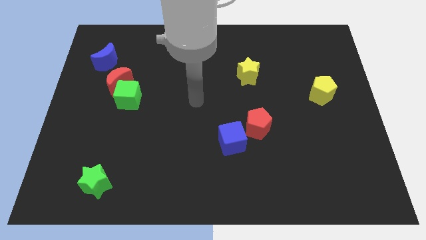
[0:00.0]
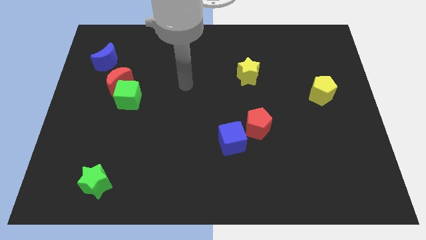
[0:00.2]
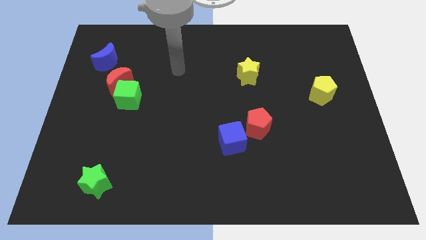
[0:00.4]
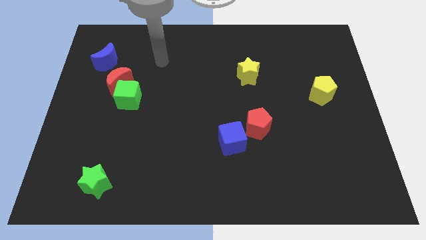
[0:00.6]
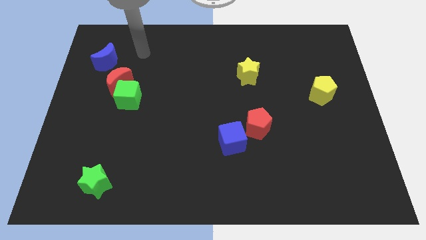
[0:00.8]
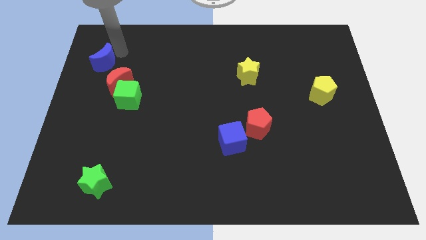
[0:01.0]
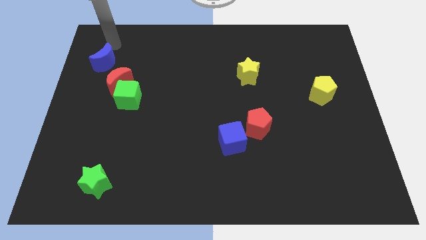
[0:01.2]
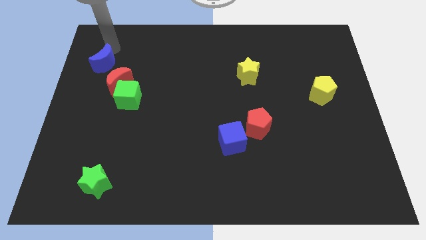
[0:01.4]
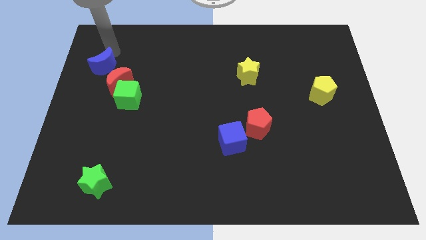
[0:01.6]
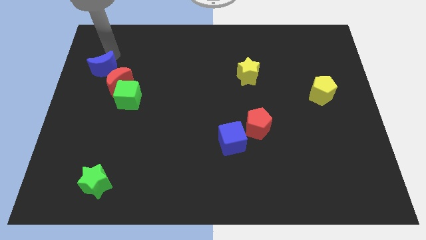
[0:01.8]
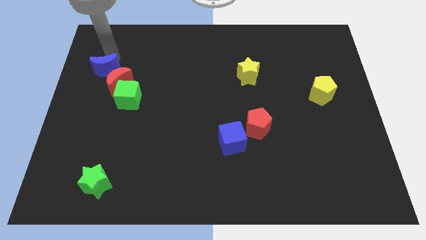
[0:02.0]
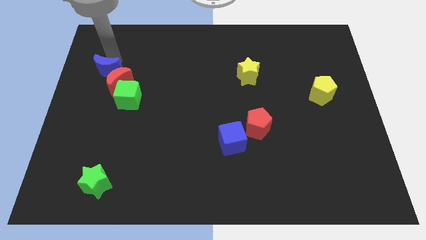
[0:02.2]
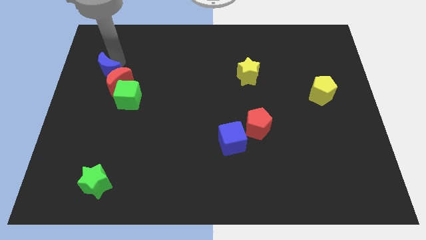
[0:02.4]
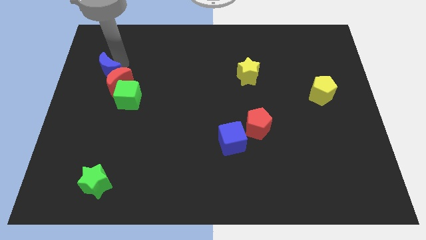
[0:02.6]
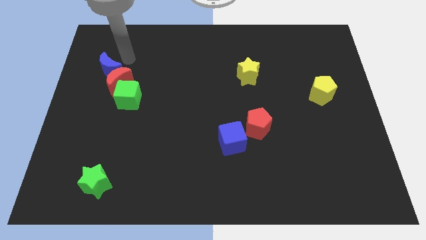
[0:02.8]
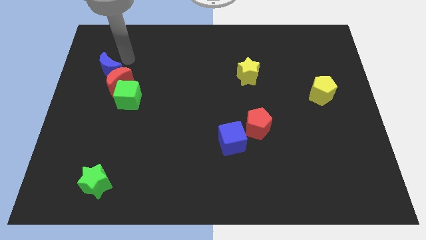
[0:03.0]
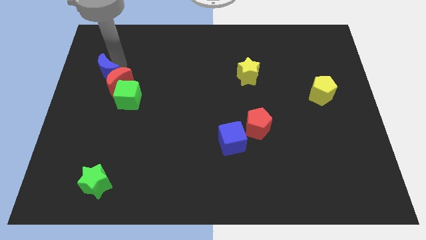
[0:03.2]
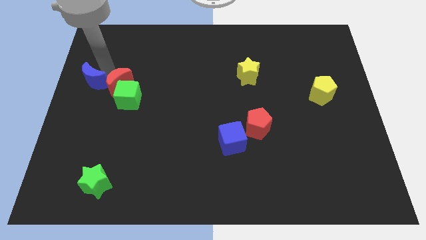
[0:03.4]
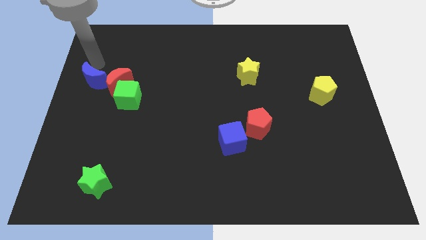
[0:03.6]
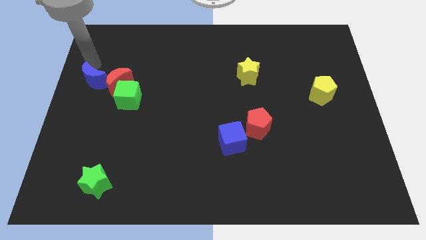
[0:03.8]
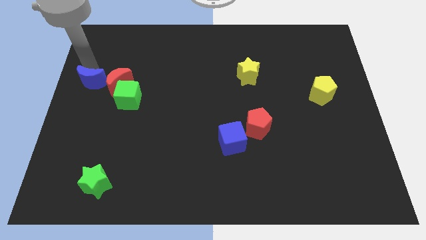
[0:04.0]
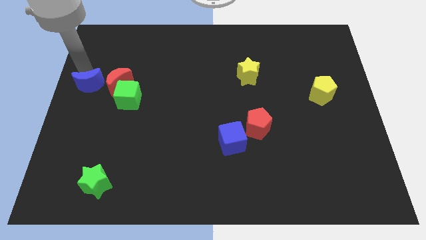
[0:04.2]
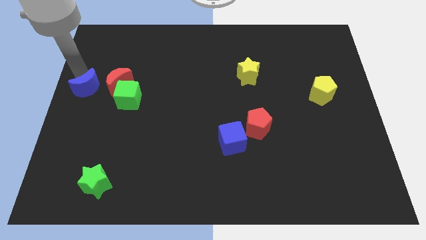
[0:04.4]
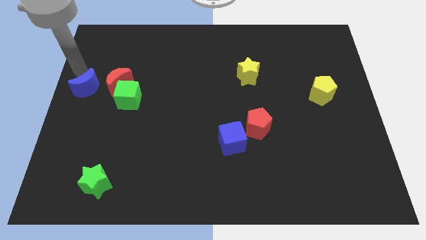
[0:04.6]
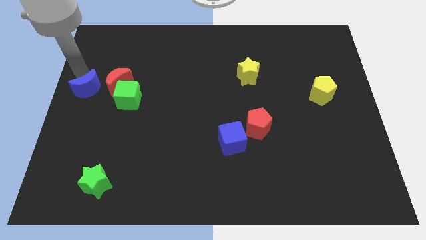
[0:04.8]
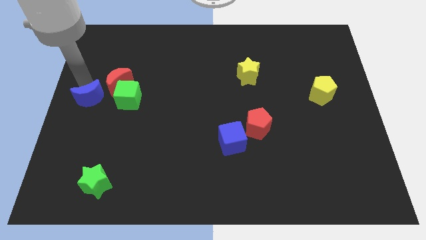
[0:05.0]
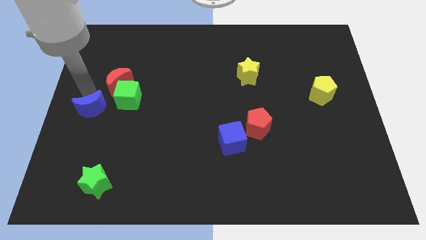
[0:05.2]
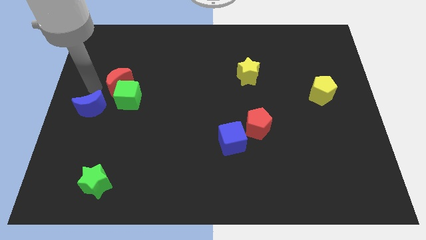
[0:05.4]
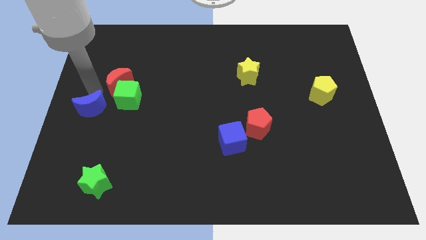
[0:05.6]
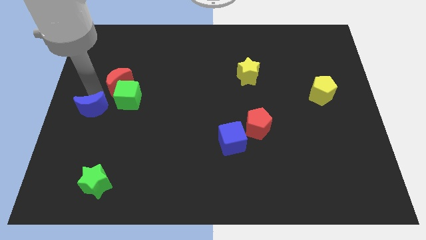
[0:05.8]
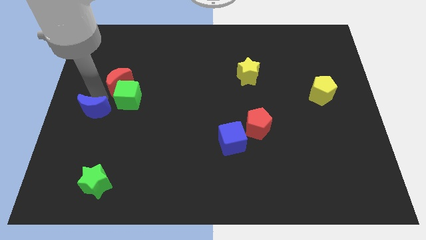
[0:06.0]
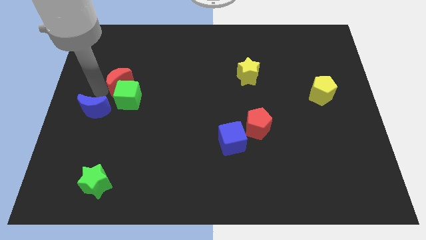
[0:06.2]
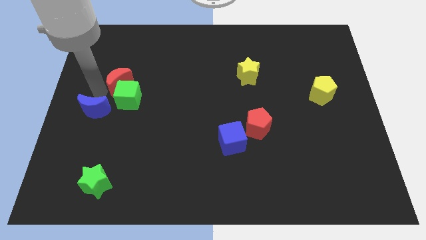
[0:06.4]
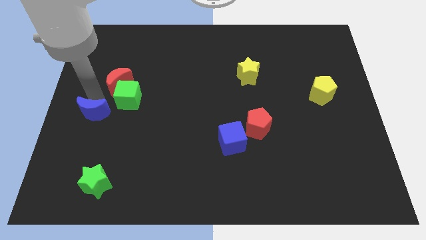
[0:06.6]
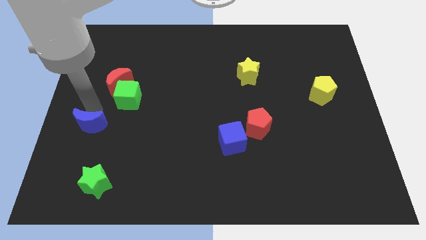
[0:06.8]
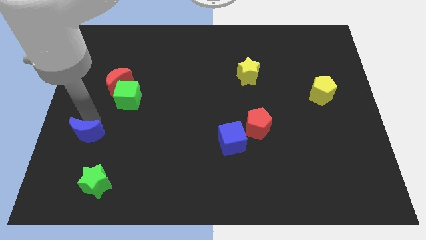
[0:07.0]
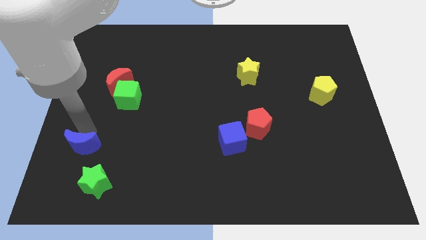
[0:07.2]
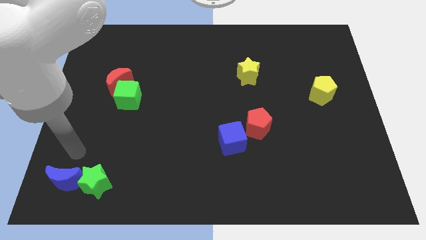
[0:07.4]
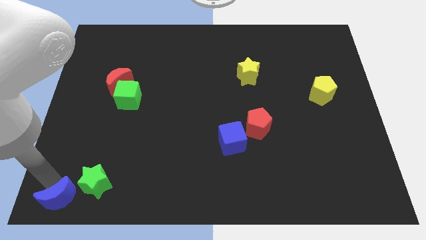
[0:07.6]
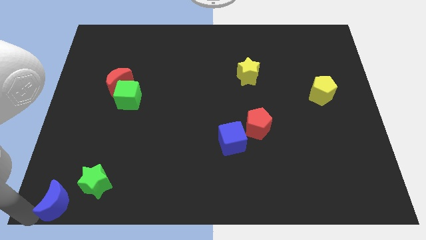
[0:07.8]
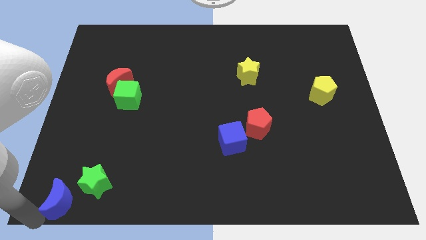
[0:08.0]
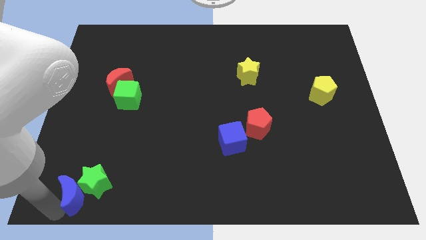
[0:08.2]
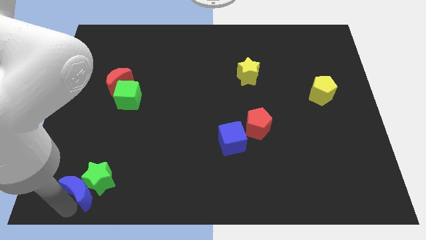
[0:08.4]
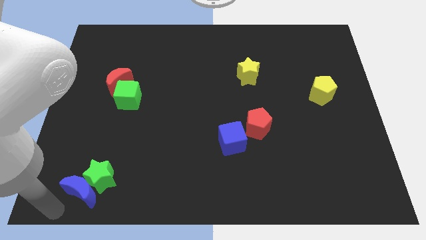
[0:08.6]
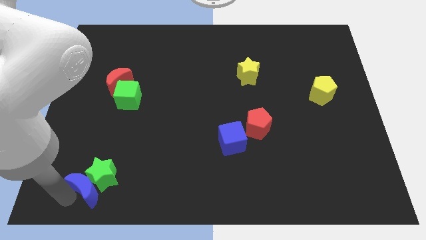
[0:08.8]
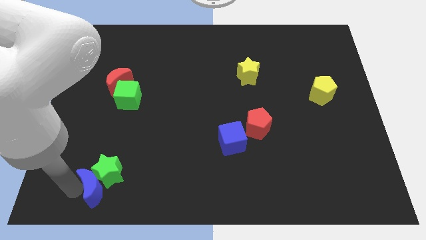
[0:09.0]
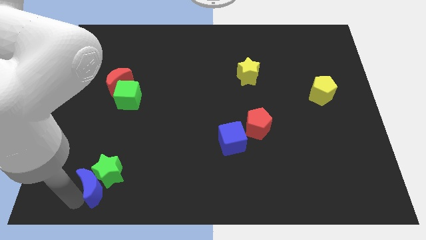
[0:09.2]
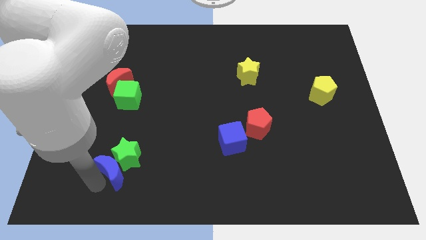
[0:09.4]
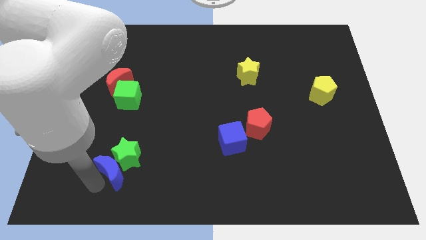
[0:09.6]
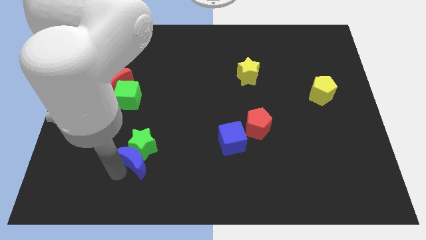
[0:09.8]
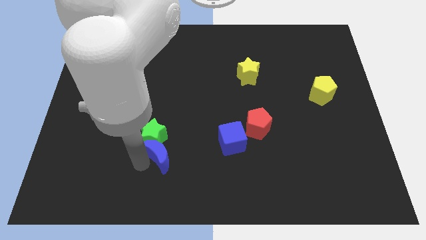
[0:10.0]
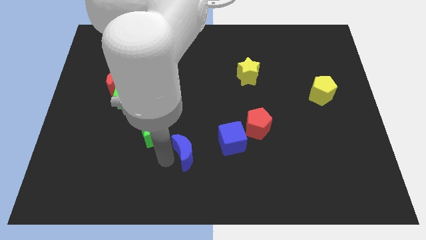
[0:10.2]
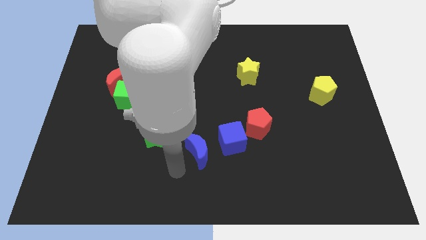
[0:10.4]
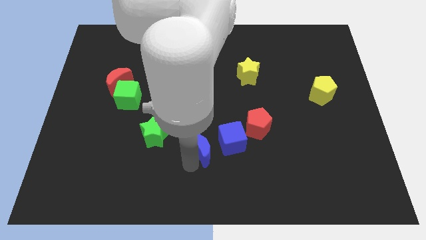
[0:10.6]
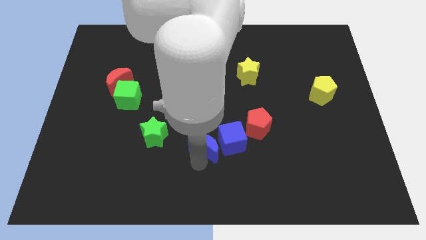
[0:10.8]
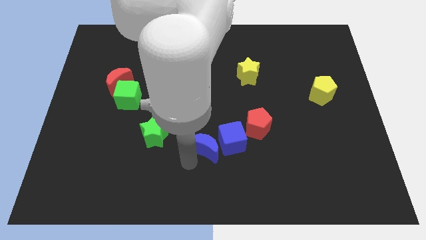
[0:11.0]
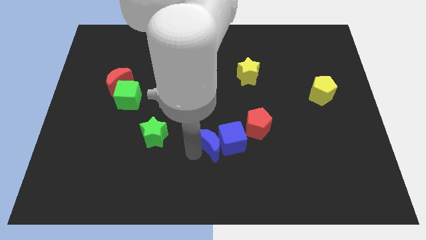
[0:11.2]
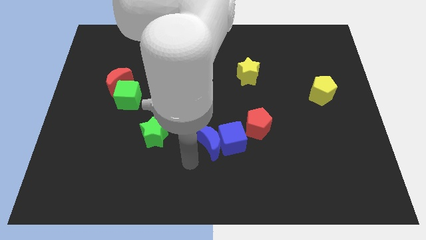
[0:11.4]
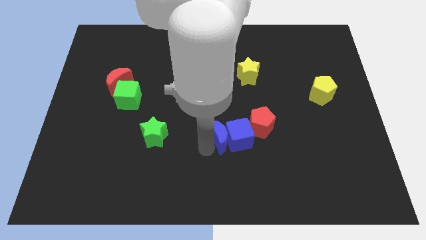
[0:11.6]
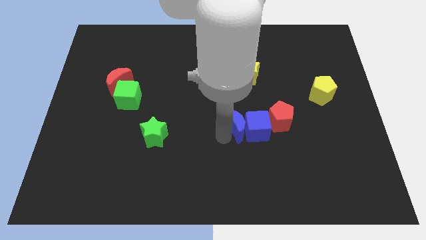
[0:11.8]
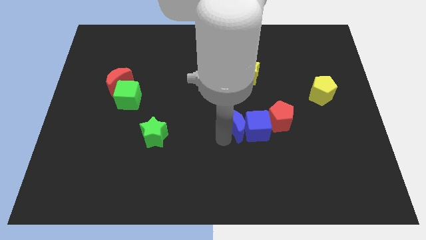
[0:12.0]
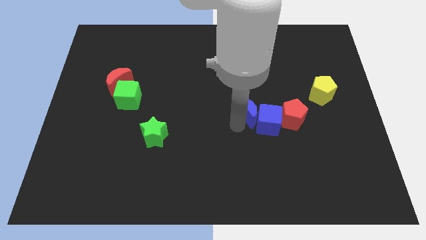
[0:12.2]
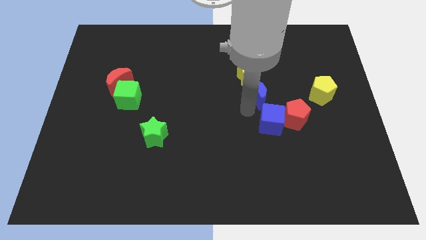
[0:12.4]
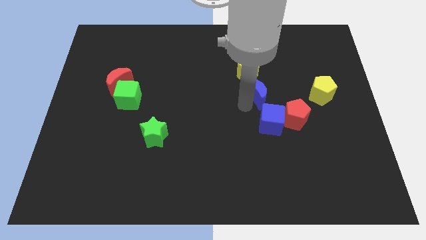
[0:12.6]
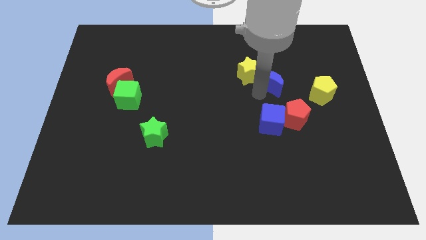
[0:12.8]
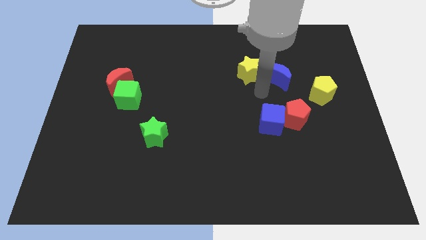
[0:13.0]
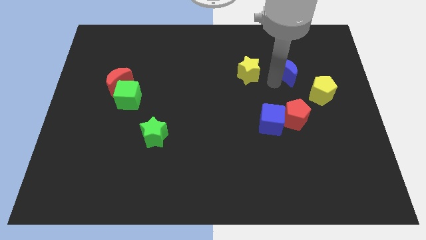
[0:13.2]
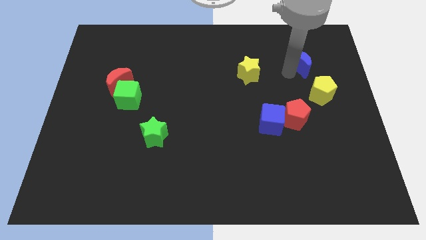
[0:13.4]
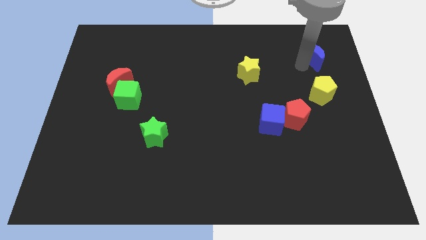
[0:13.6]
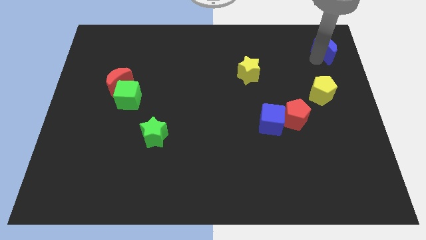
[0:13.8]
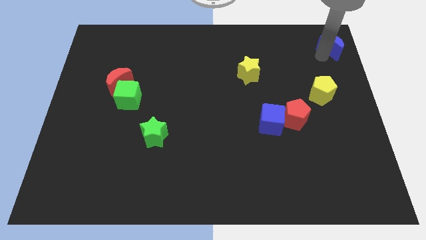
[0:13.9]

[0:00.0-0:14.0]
move the blue moon to the top right
